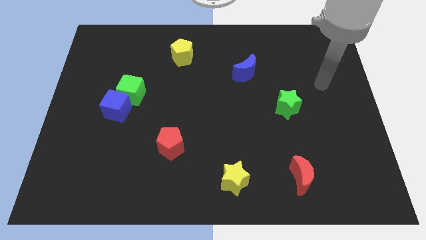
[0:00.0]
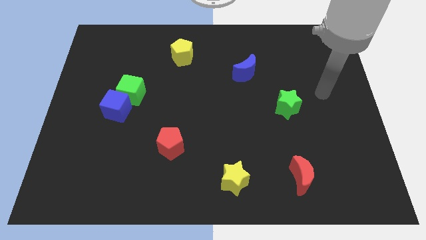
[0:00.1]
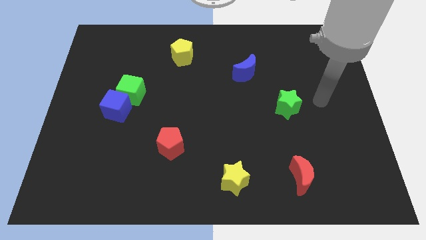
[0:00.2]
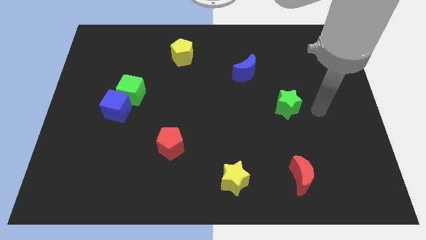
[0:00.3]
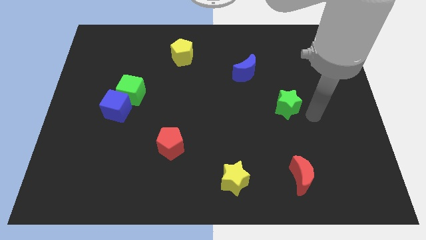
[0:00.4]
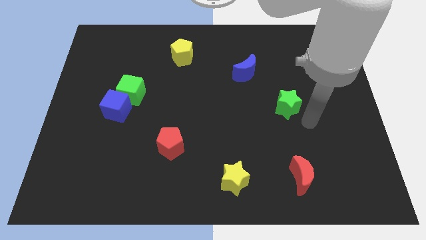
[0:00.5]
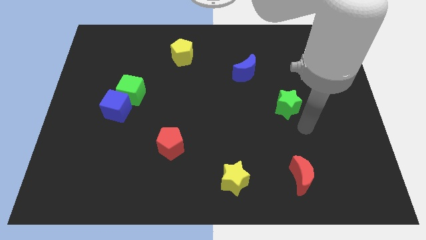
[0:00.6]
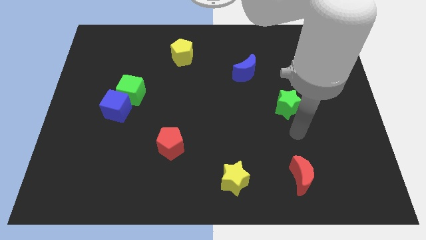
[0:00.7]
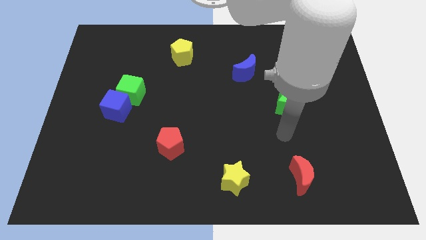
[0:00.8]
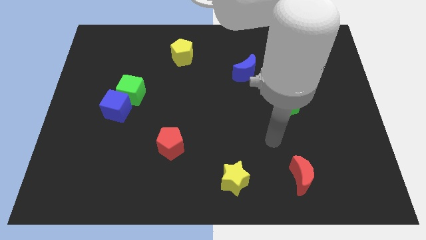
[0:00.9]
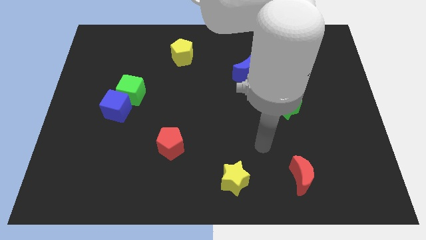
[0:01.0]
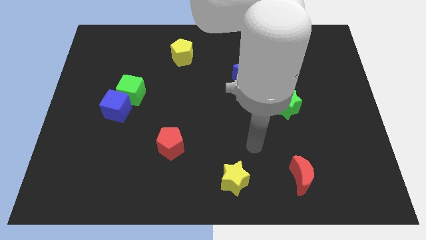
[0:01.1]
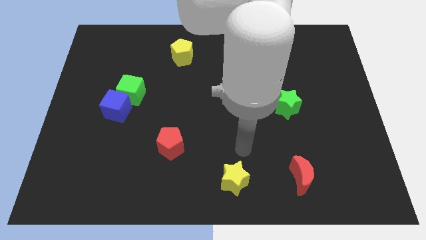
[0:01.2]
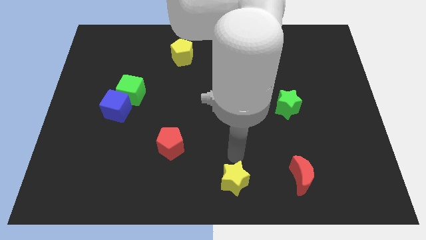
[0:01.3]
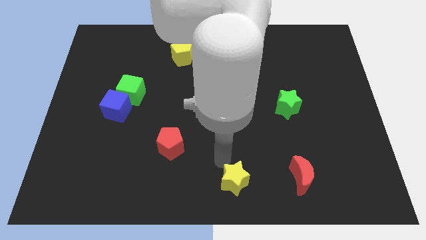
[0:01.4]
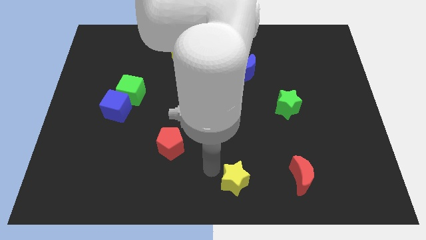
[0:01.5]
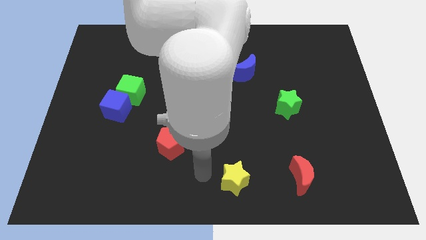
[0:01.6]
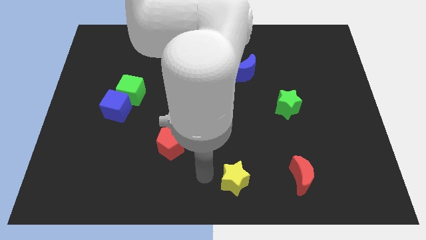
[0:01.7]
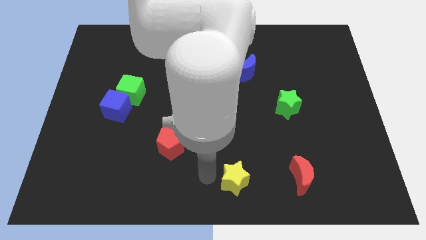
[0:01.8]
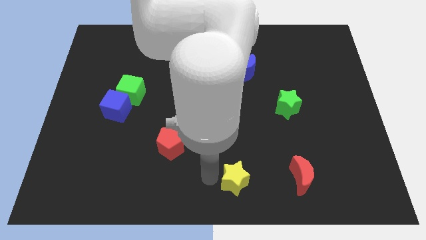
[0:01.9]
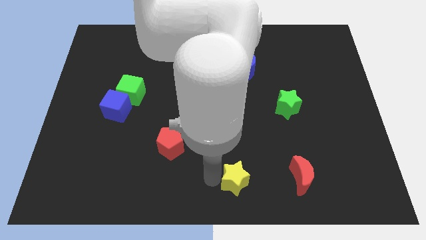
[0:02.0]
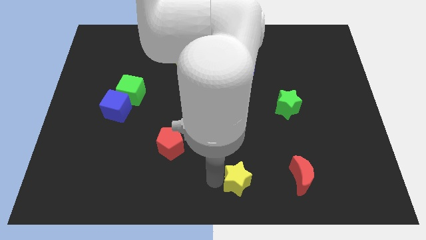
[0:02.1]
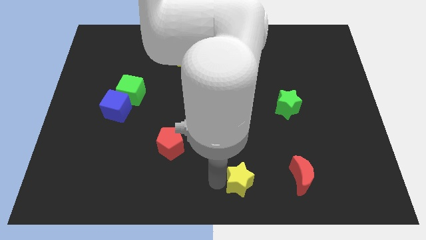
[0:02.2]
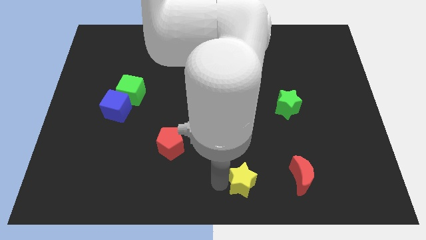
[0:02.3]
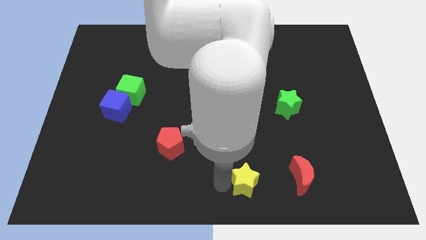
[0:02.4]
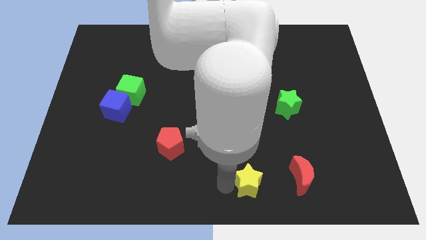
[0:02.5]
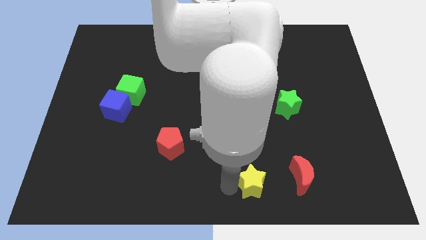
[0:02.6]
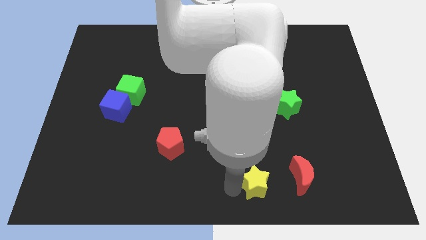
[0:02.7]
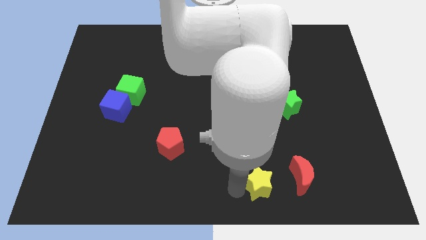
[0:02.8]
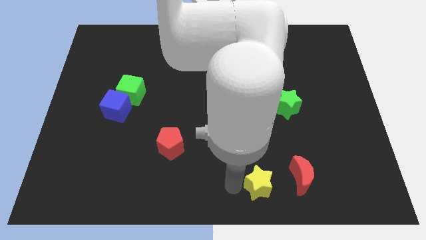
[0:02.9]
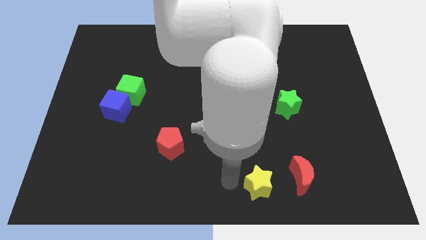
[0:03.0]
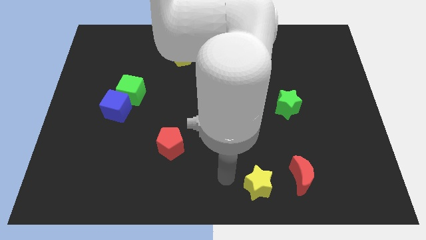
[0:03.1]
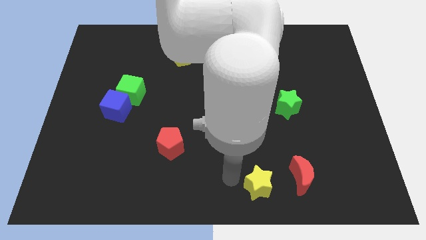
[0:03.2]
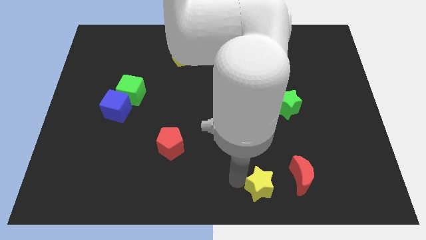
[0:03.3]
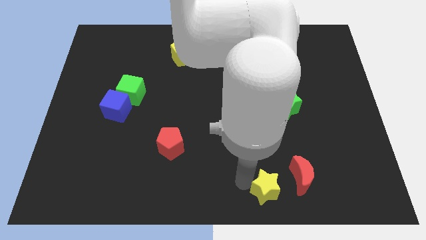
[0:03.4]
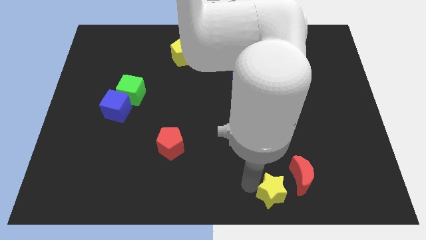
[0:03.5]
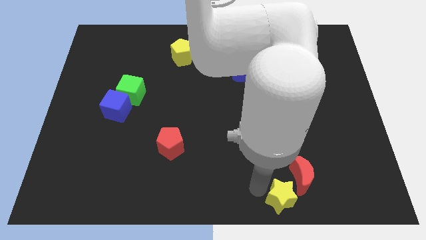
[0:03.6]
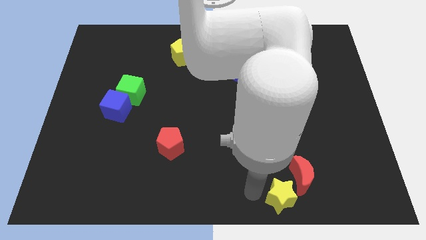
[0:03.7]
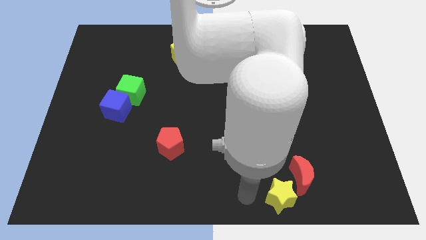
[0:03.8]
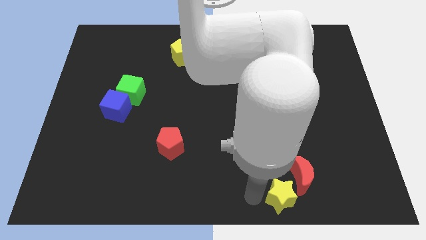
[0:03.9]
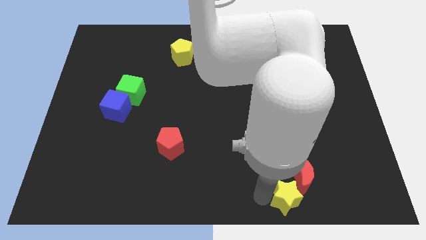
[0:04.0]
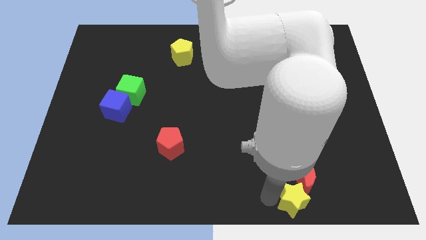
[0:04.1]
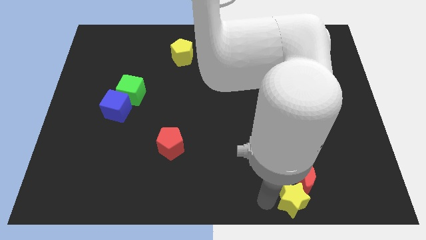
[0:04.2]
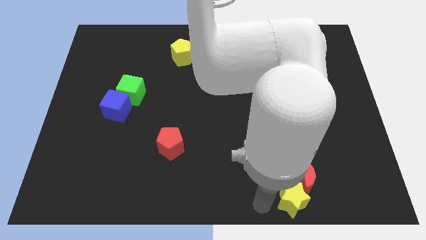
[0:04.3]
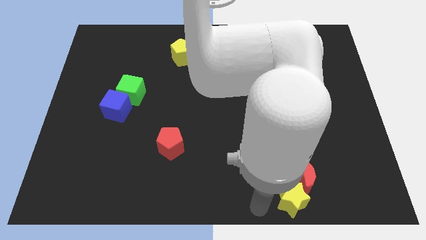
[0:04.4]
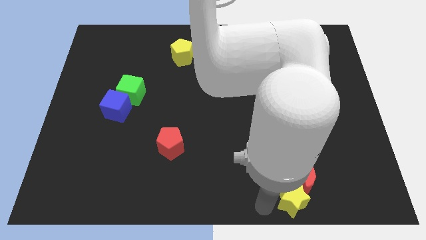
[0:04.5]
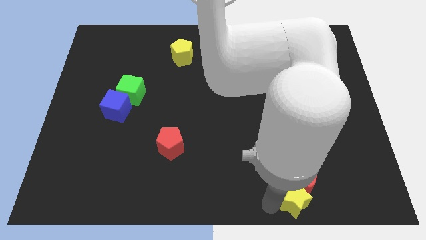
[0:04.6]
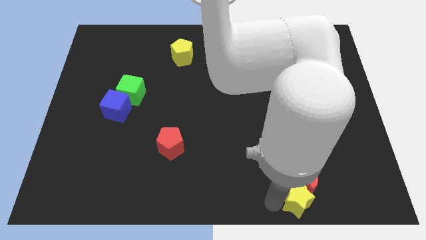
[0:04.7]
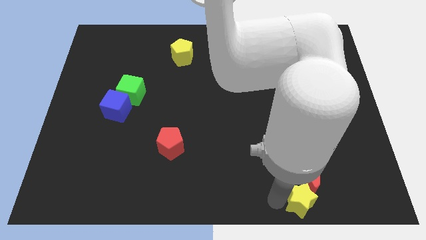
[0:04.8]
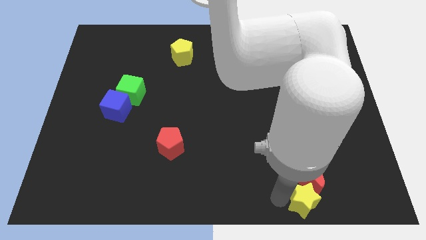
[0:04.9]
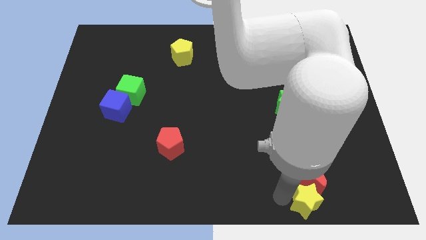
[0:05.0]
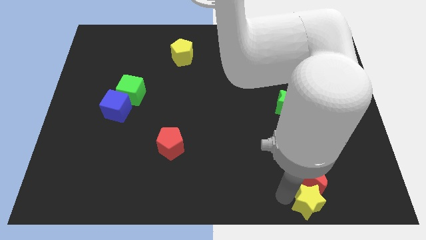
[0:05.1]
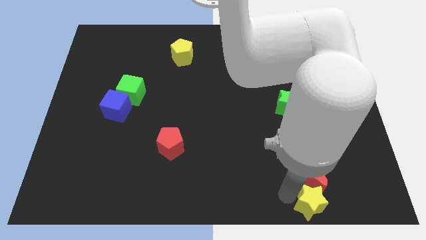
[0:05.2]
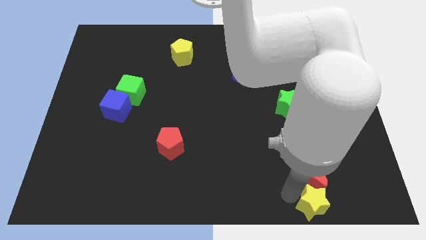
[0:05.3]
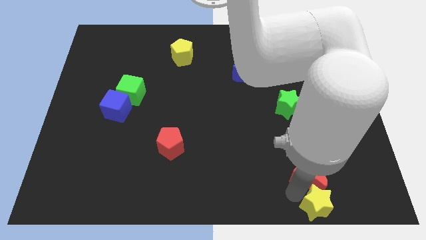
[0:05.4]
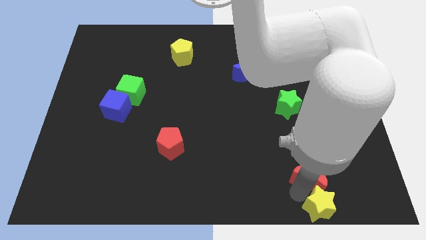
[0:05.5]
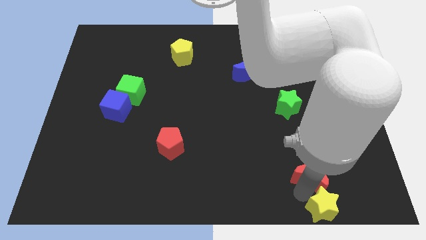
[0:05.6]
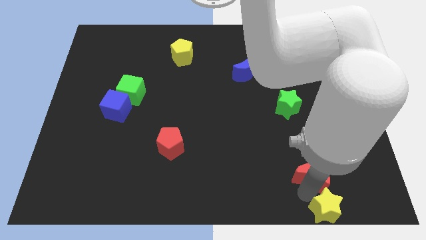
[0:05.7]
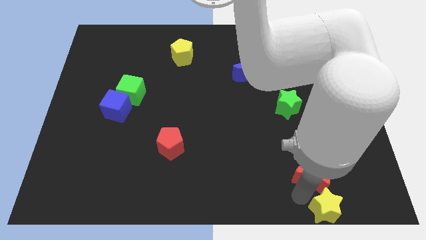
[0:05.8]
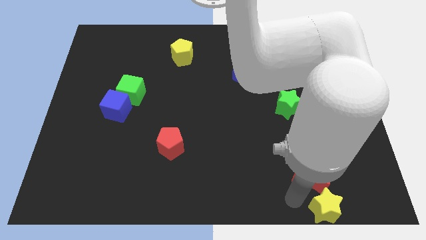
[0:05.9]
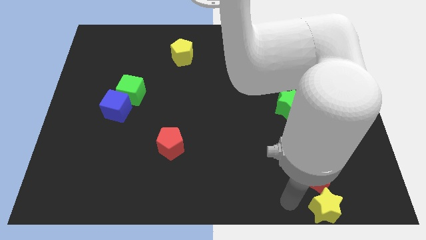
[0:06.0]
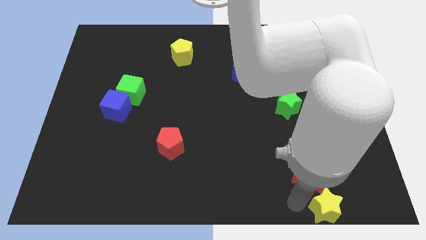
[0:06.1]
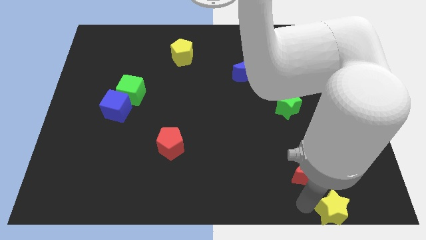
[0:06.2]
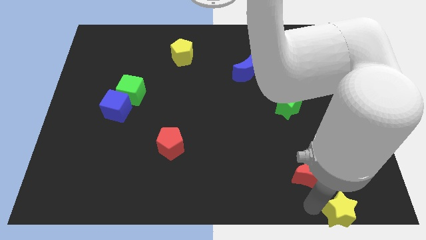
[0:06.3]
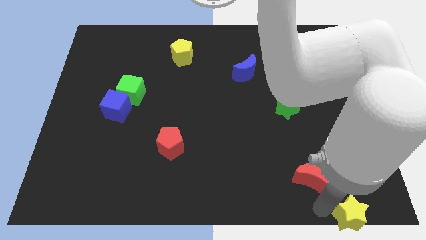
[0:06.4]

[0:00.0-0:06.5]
push the yellow star to the lower right corner
